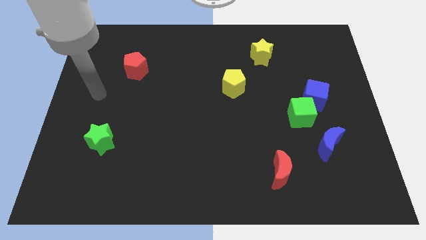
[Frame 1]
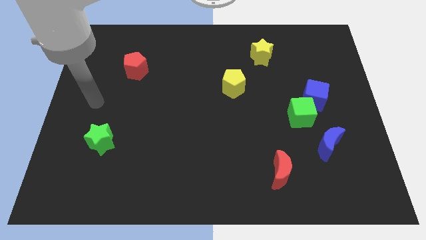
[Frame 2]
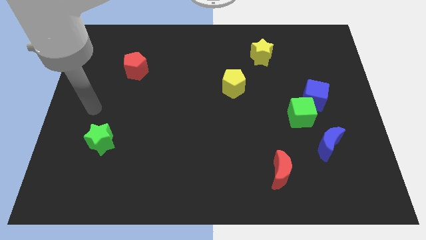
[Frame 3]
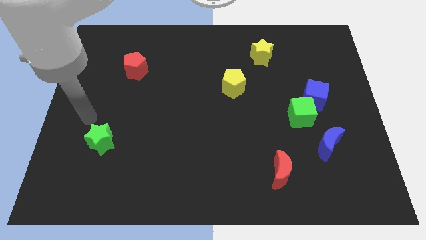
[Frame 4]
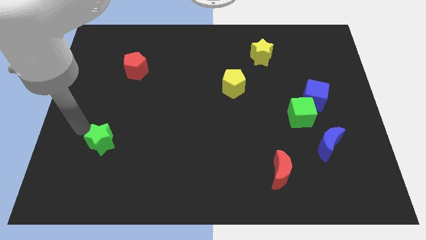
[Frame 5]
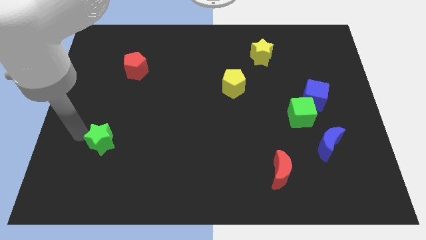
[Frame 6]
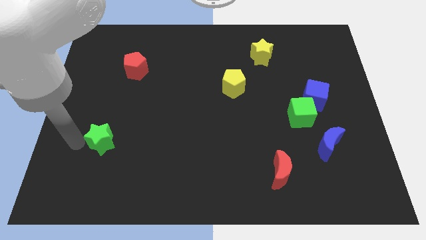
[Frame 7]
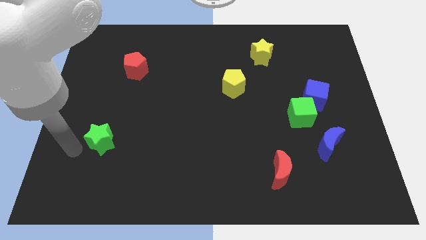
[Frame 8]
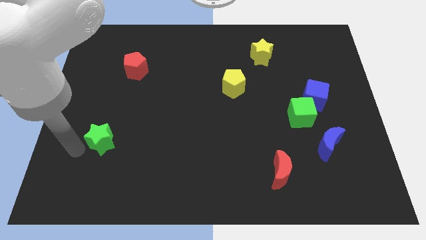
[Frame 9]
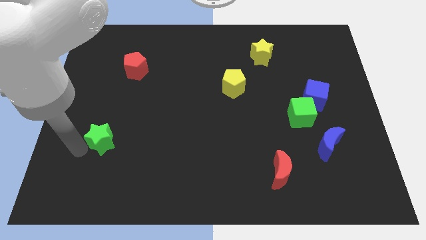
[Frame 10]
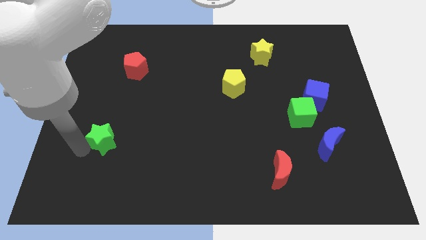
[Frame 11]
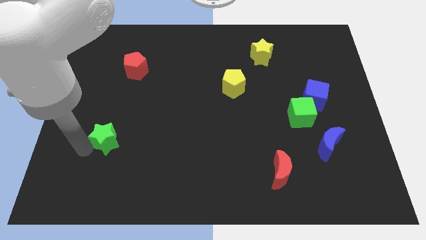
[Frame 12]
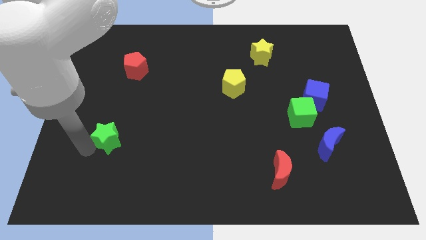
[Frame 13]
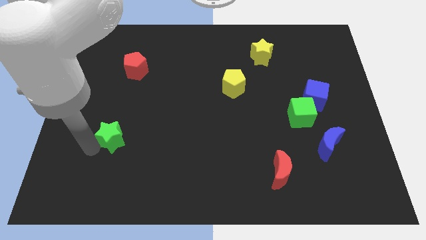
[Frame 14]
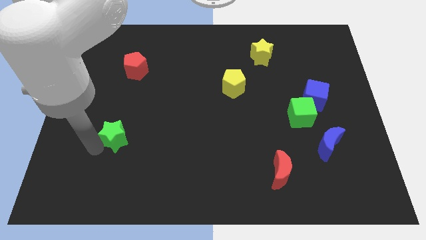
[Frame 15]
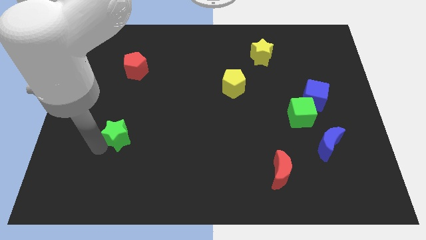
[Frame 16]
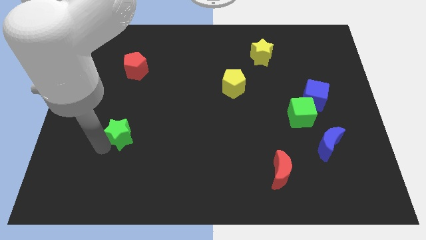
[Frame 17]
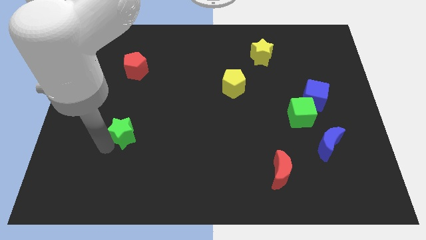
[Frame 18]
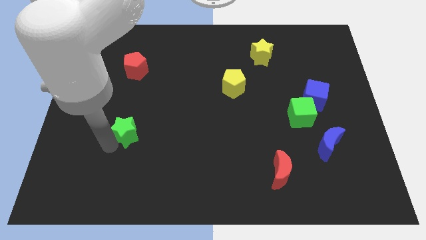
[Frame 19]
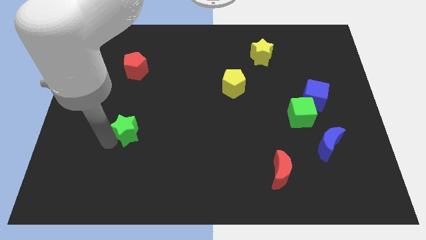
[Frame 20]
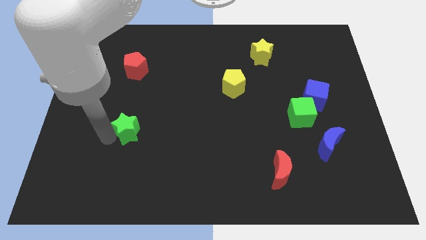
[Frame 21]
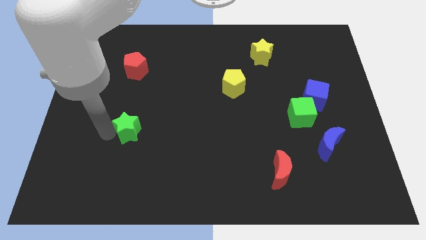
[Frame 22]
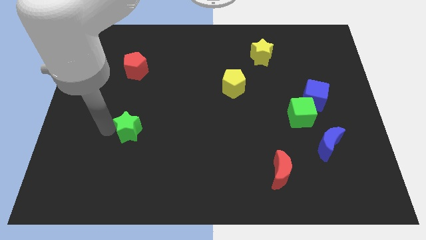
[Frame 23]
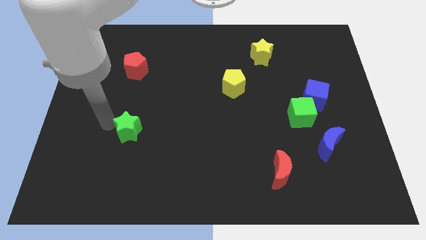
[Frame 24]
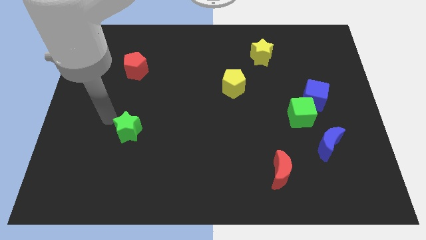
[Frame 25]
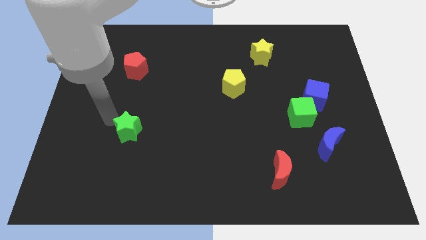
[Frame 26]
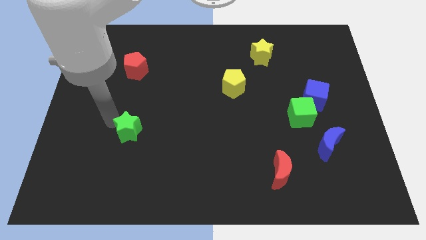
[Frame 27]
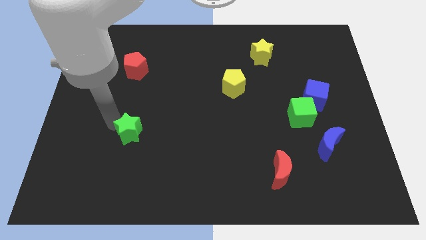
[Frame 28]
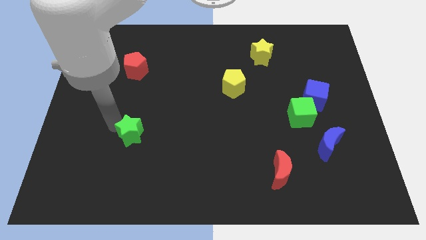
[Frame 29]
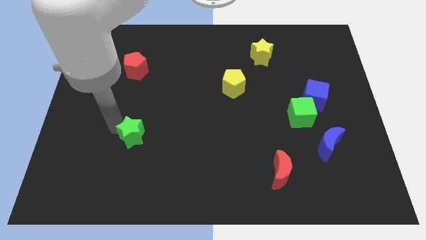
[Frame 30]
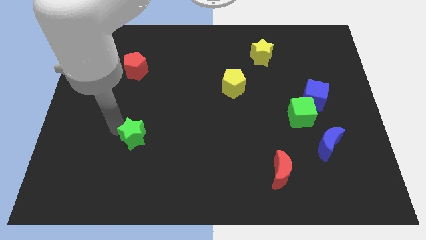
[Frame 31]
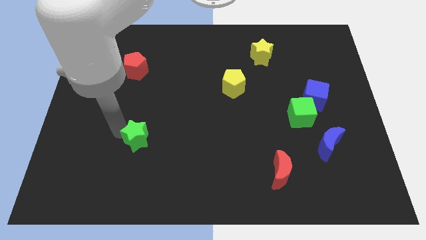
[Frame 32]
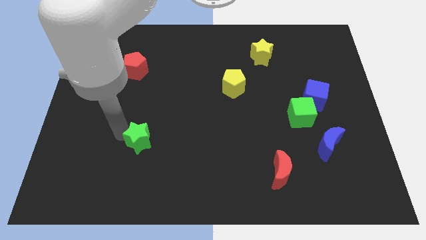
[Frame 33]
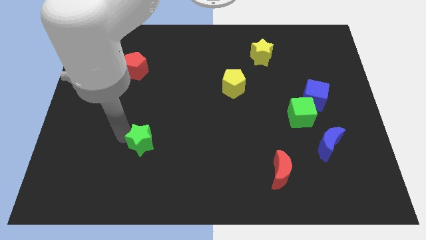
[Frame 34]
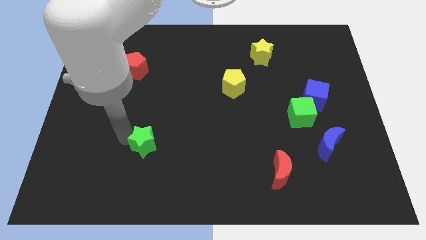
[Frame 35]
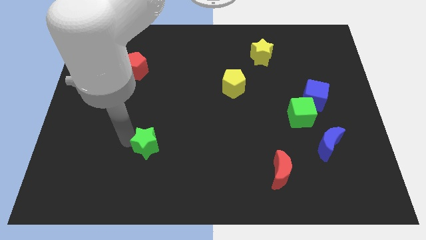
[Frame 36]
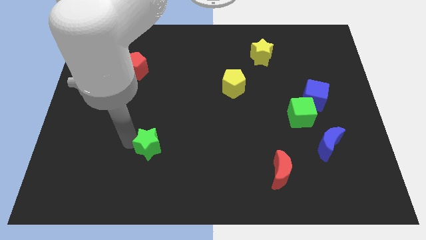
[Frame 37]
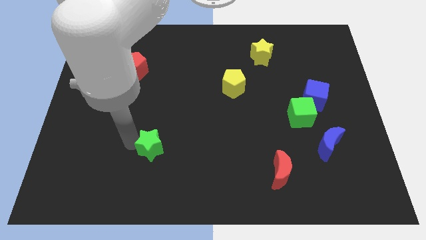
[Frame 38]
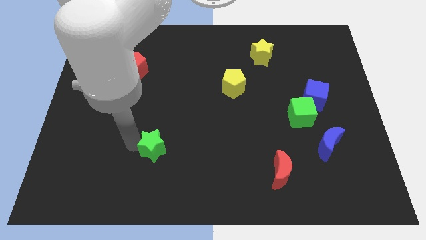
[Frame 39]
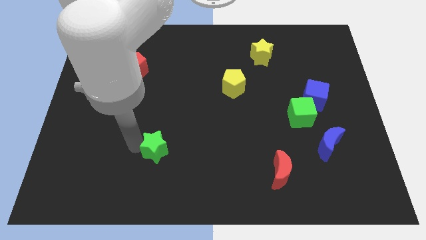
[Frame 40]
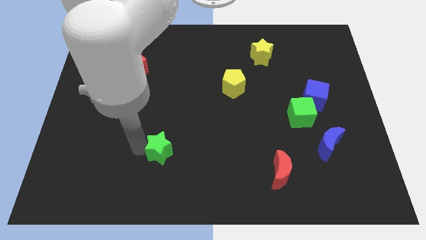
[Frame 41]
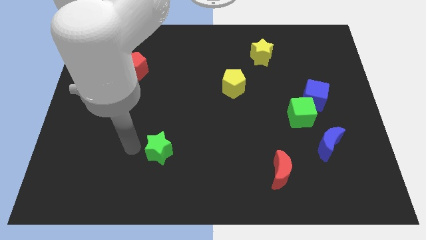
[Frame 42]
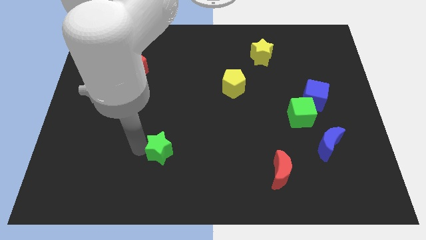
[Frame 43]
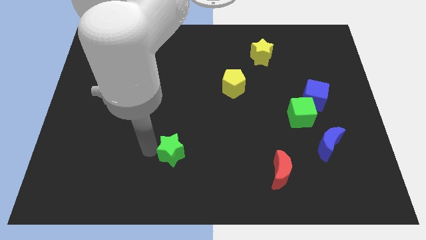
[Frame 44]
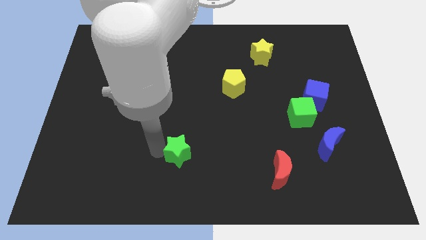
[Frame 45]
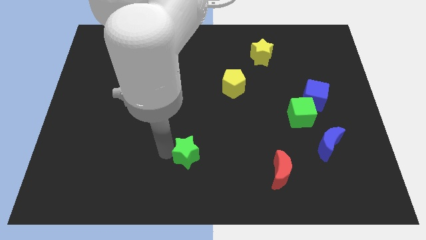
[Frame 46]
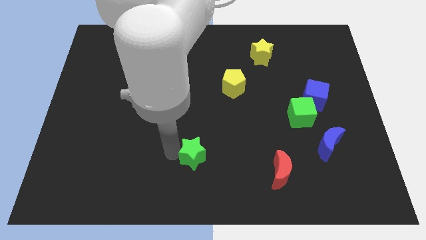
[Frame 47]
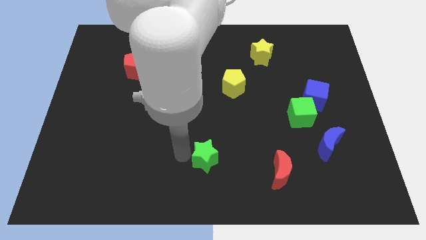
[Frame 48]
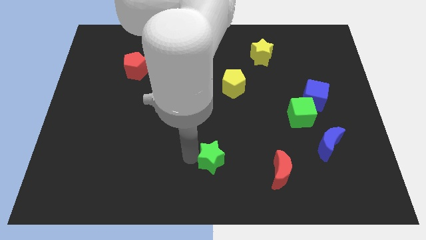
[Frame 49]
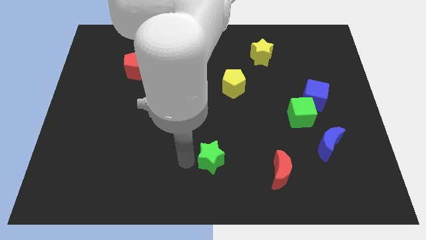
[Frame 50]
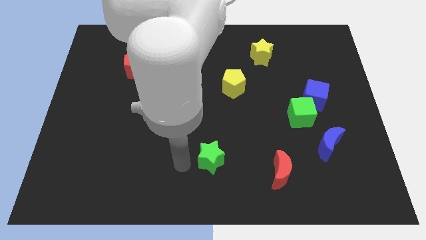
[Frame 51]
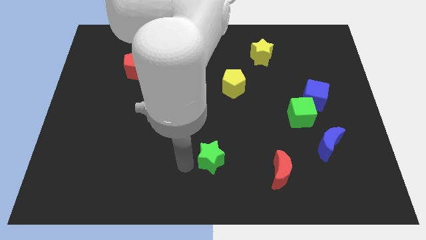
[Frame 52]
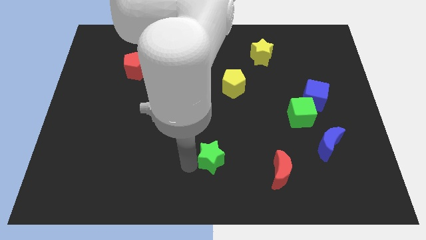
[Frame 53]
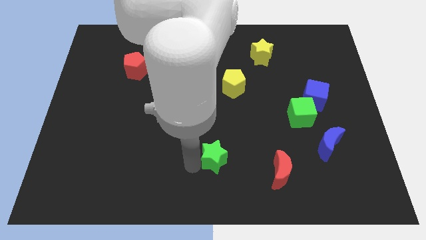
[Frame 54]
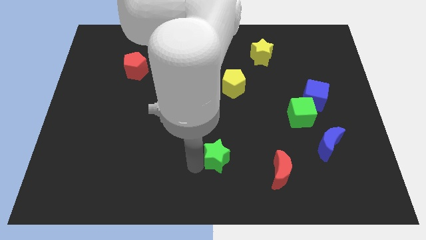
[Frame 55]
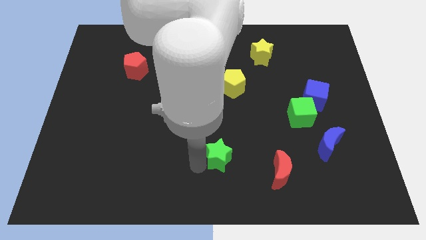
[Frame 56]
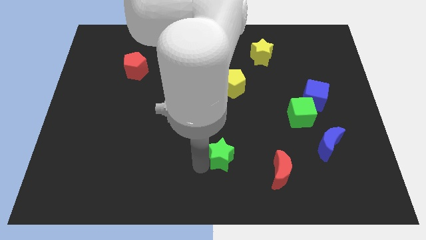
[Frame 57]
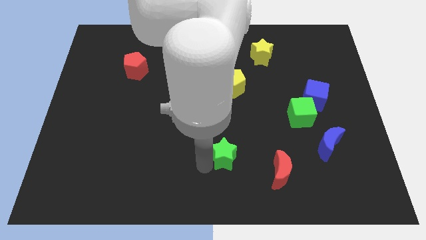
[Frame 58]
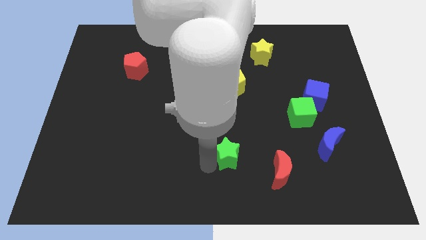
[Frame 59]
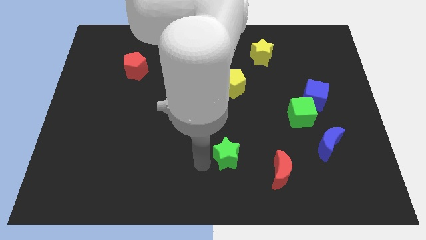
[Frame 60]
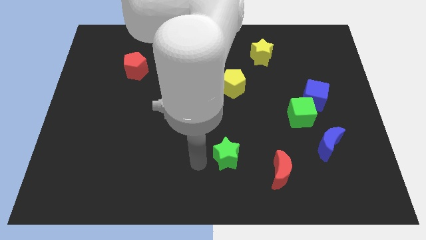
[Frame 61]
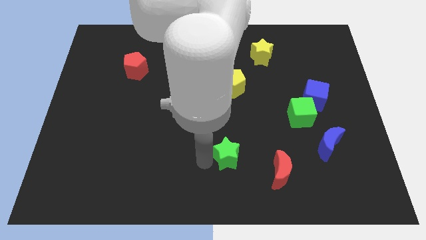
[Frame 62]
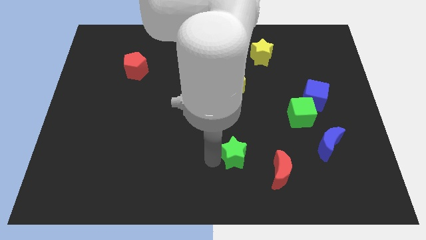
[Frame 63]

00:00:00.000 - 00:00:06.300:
put the green star to the top left side of the red moon

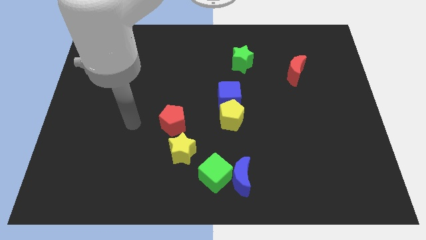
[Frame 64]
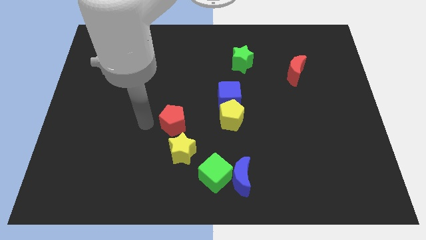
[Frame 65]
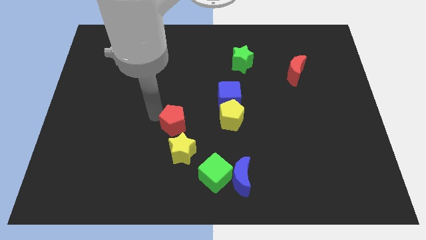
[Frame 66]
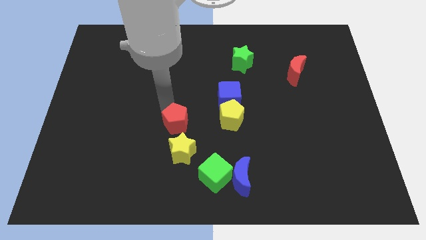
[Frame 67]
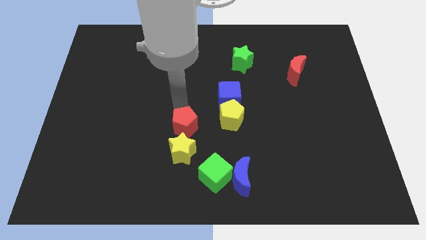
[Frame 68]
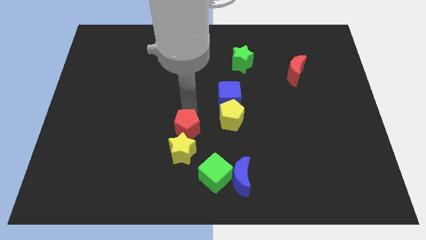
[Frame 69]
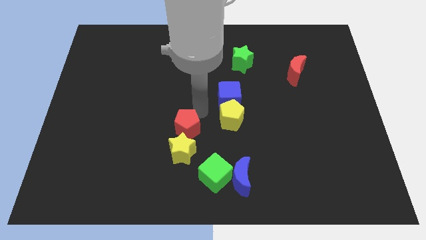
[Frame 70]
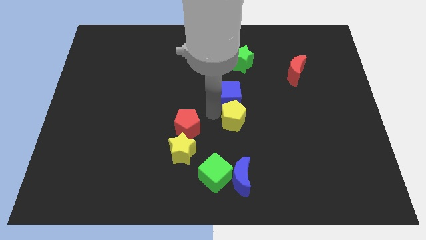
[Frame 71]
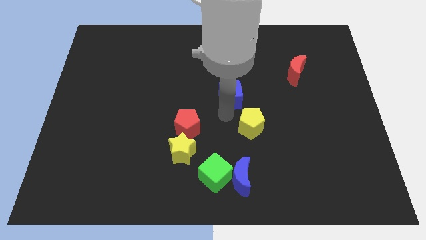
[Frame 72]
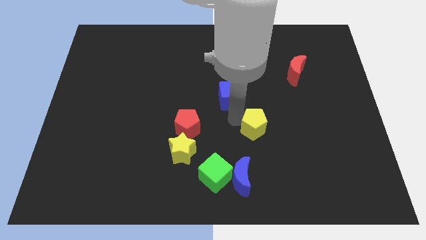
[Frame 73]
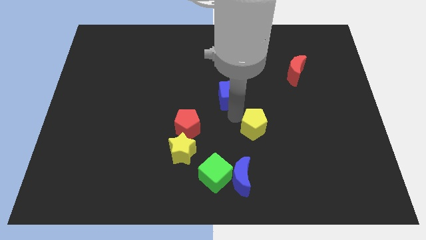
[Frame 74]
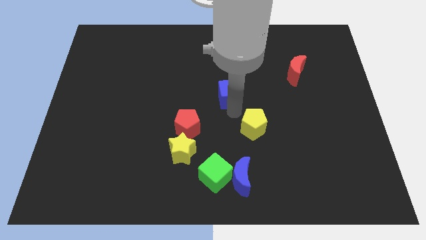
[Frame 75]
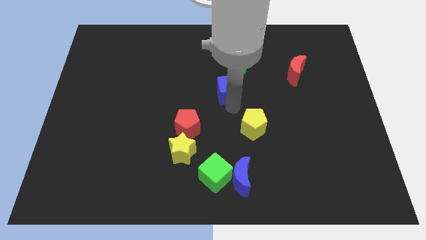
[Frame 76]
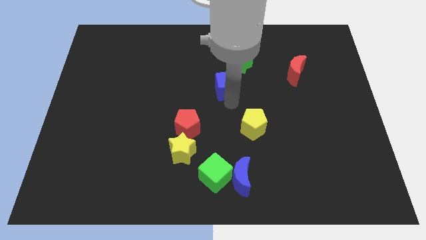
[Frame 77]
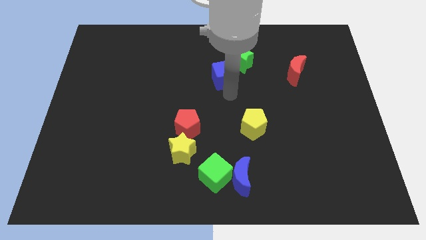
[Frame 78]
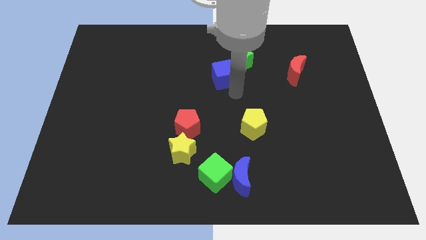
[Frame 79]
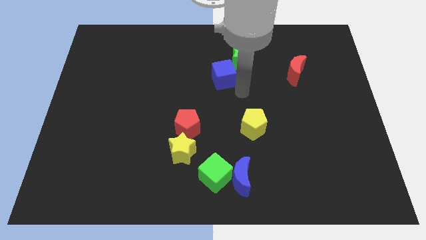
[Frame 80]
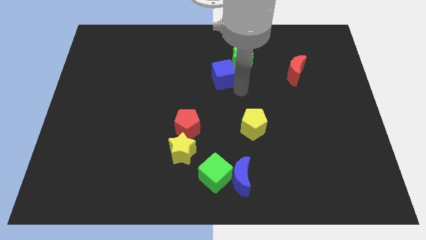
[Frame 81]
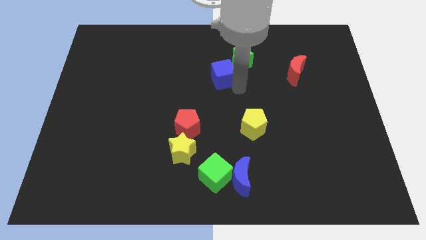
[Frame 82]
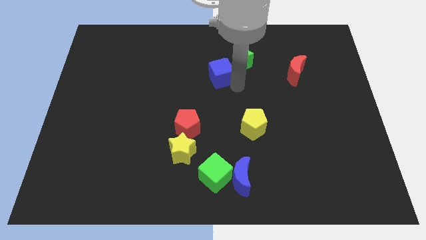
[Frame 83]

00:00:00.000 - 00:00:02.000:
move the blue cube just left of the green star
